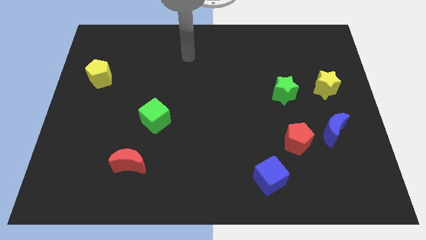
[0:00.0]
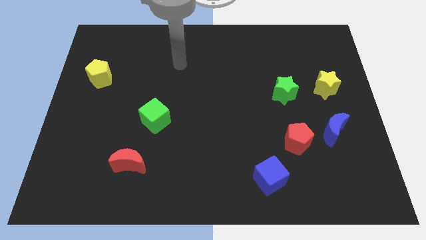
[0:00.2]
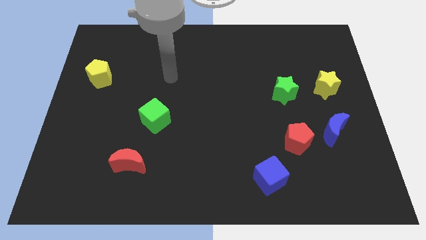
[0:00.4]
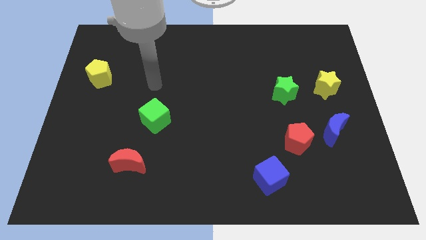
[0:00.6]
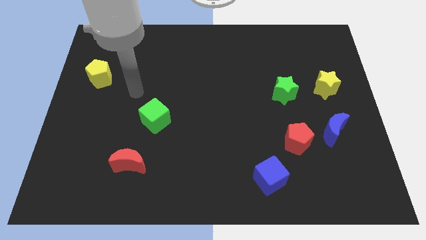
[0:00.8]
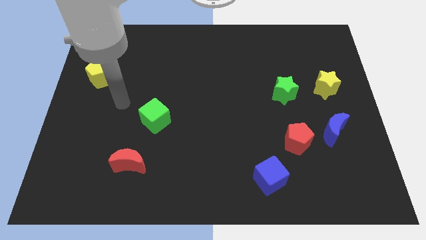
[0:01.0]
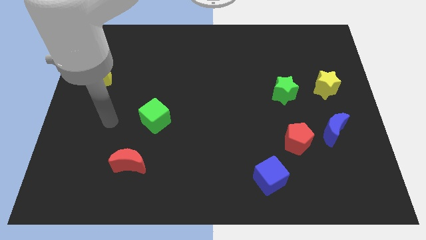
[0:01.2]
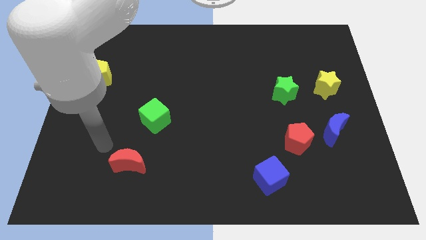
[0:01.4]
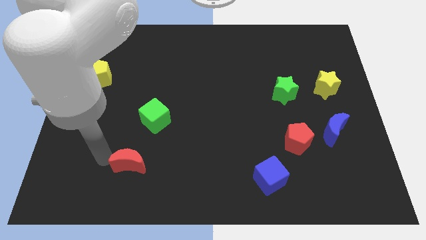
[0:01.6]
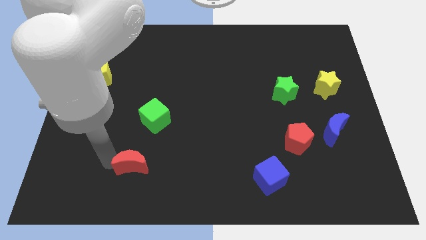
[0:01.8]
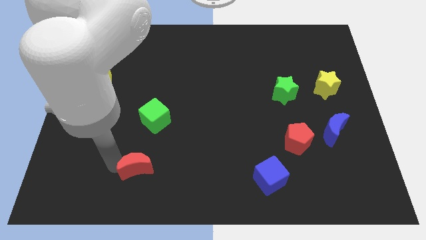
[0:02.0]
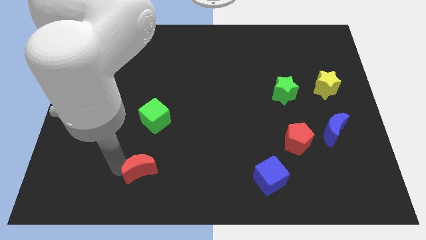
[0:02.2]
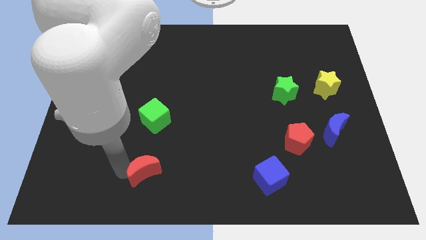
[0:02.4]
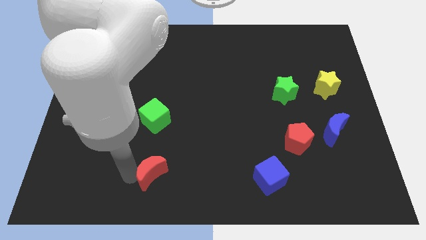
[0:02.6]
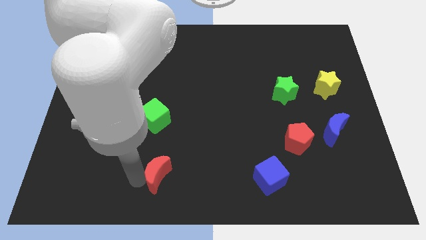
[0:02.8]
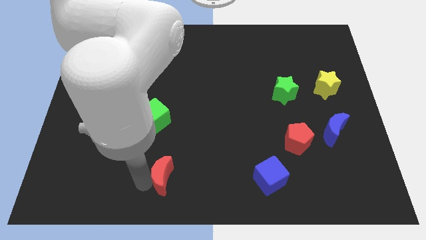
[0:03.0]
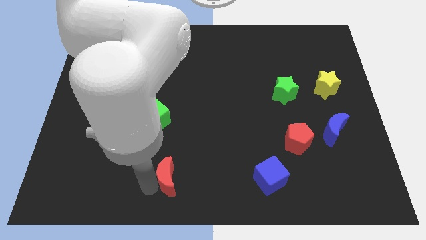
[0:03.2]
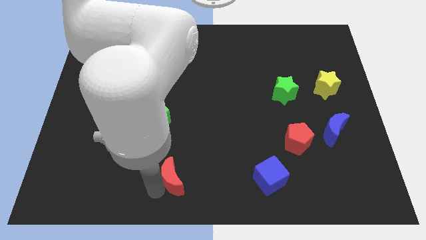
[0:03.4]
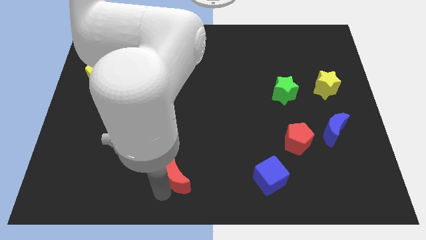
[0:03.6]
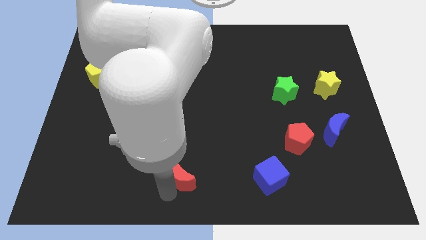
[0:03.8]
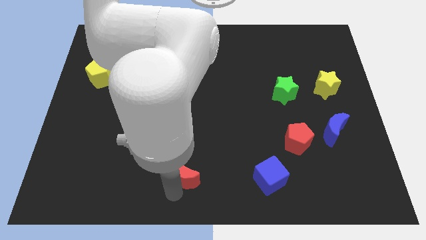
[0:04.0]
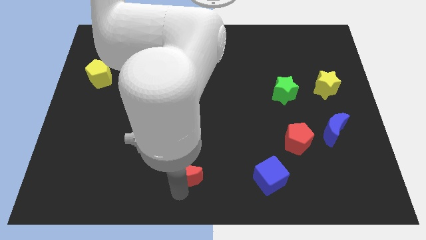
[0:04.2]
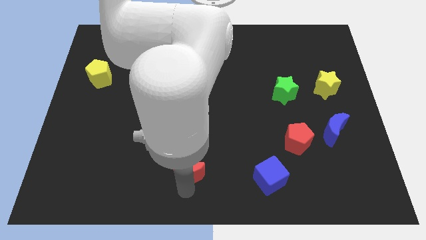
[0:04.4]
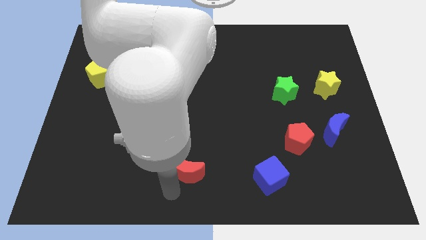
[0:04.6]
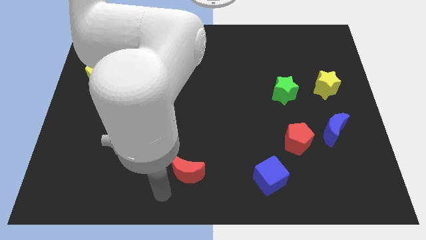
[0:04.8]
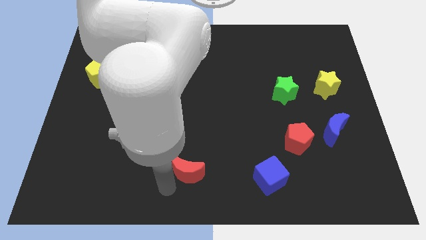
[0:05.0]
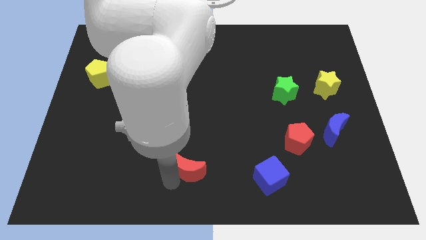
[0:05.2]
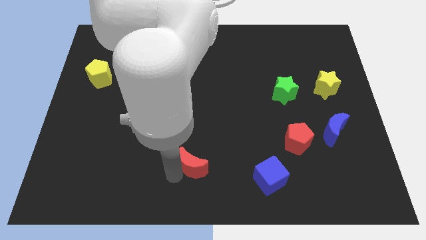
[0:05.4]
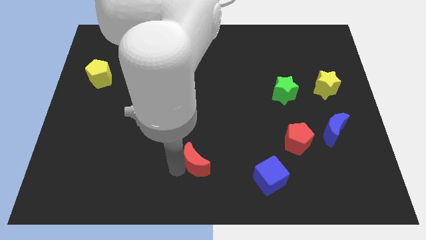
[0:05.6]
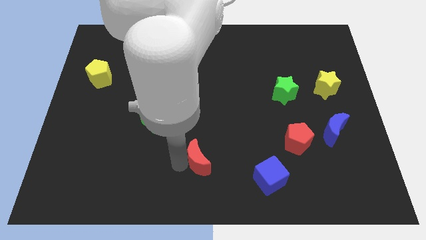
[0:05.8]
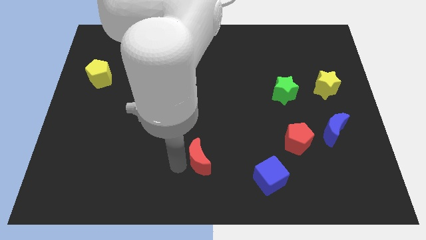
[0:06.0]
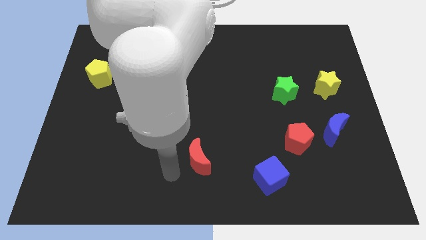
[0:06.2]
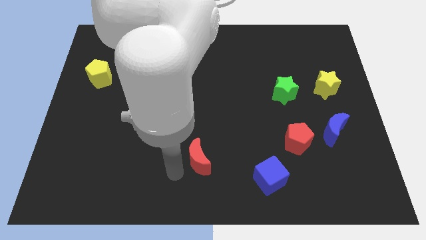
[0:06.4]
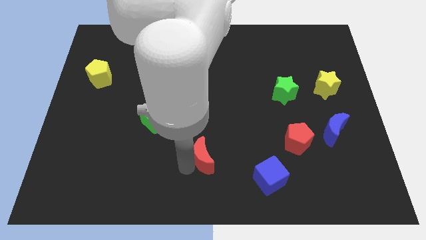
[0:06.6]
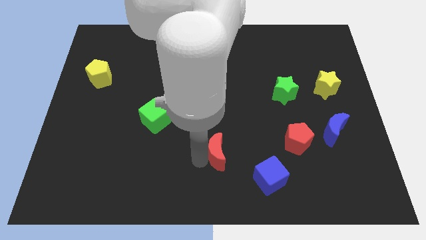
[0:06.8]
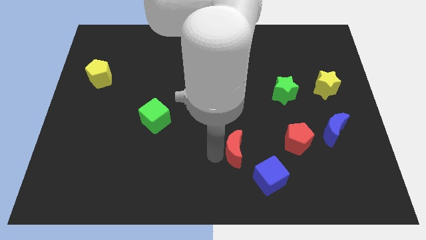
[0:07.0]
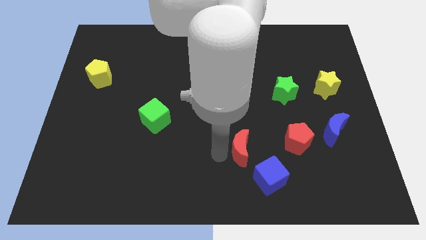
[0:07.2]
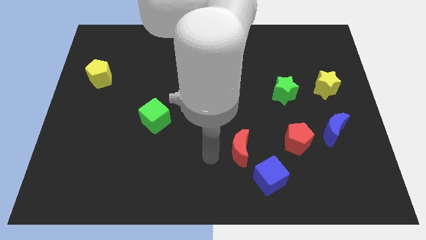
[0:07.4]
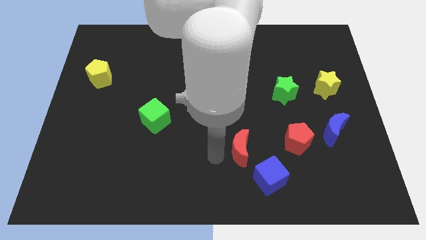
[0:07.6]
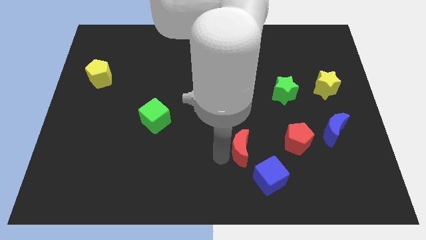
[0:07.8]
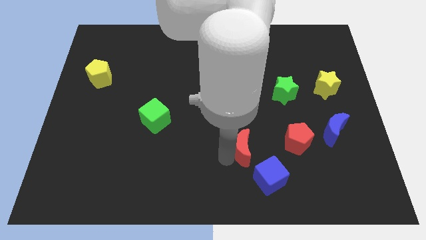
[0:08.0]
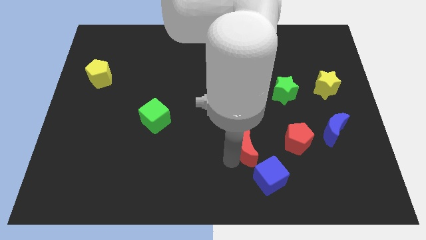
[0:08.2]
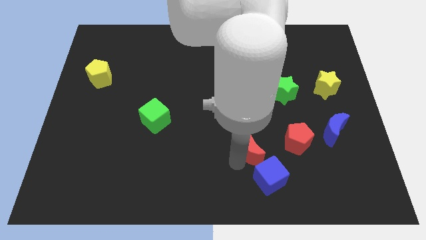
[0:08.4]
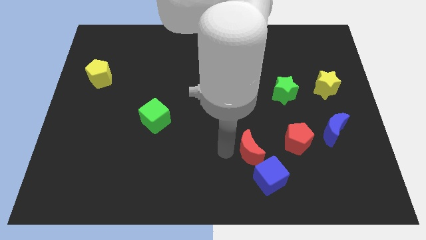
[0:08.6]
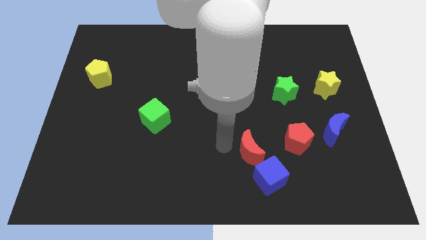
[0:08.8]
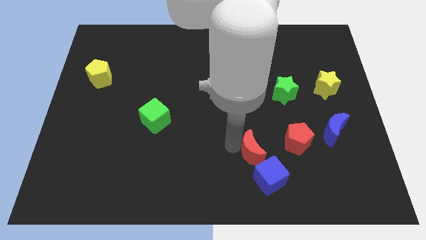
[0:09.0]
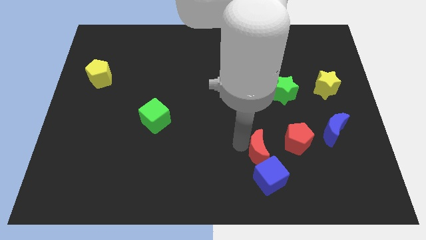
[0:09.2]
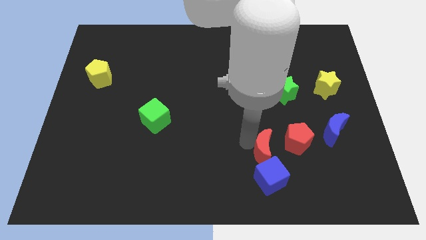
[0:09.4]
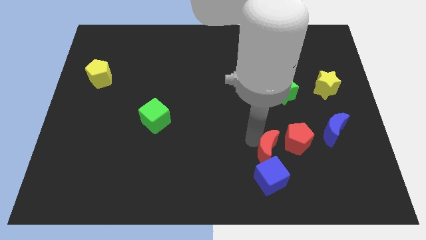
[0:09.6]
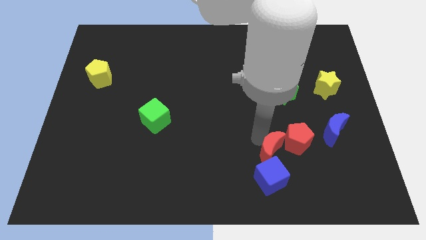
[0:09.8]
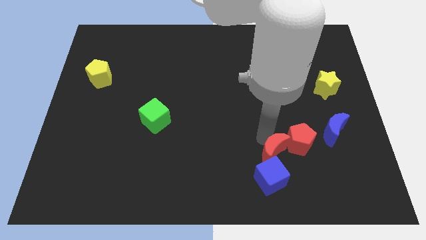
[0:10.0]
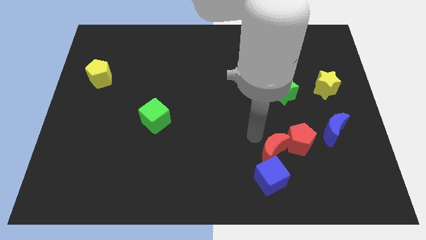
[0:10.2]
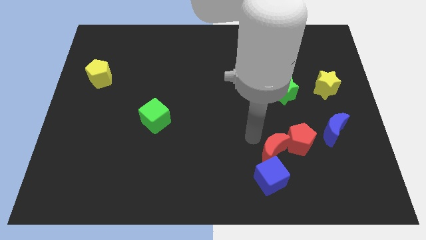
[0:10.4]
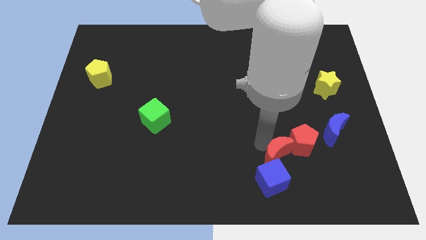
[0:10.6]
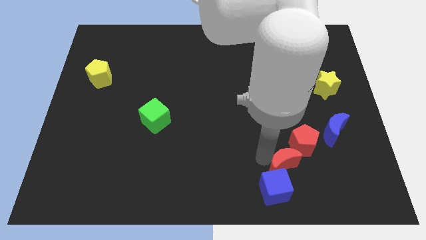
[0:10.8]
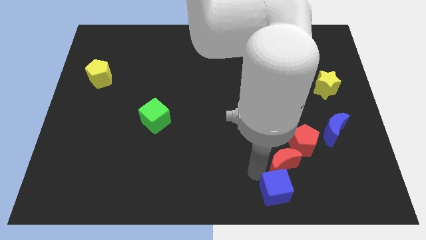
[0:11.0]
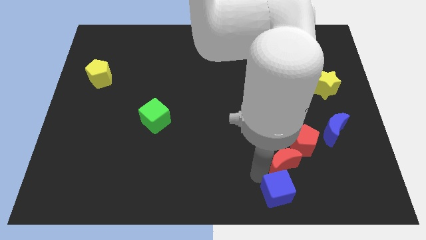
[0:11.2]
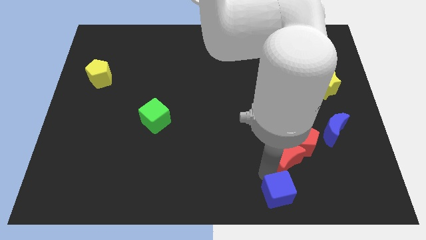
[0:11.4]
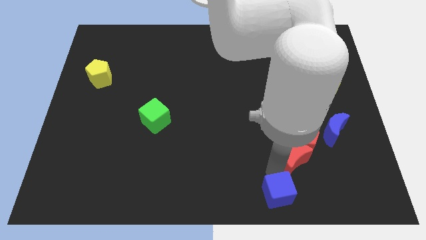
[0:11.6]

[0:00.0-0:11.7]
push the red moon diagonally down and to the left of the blue moon

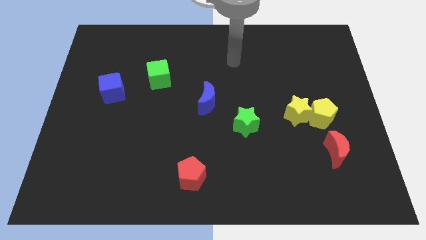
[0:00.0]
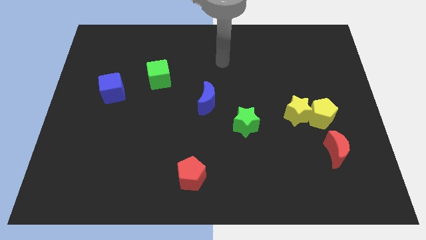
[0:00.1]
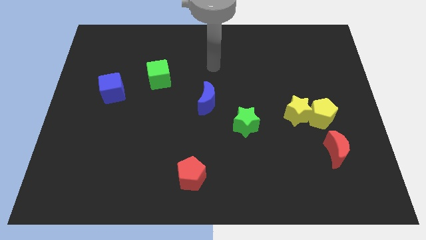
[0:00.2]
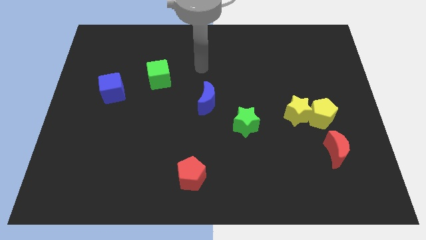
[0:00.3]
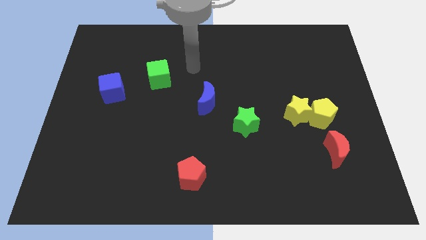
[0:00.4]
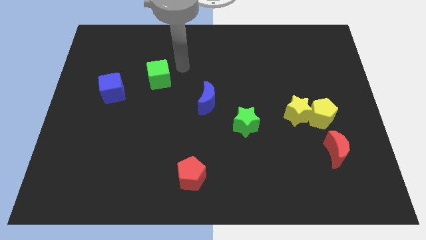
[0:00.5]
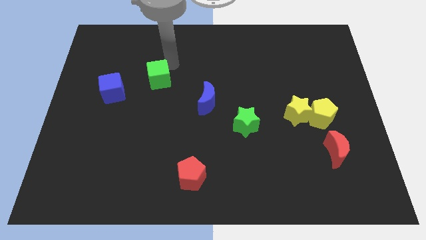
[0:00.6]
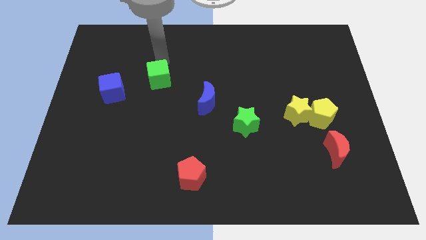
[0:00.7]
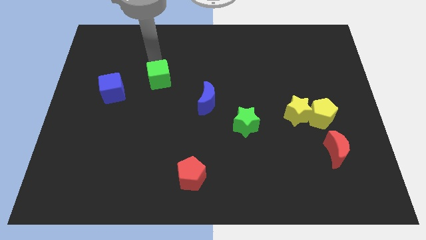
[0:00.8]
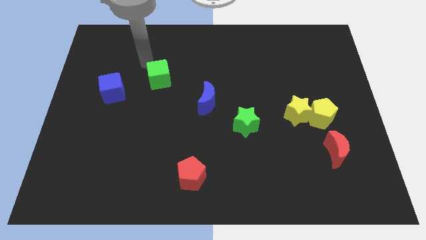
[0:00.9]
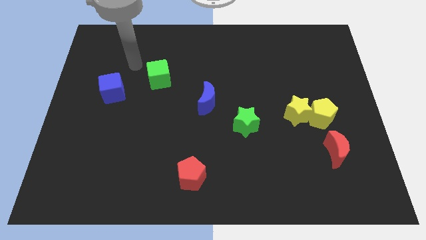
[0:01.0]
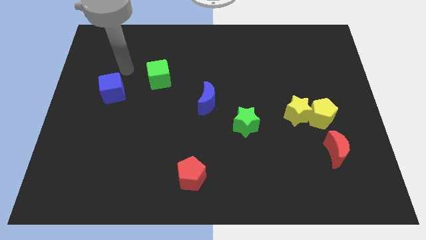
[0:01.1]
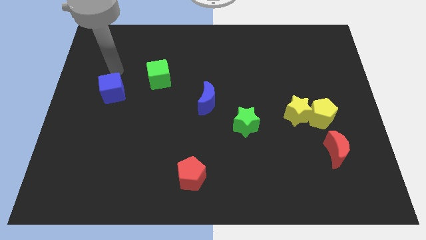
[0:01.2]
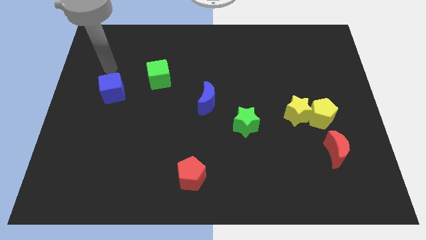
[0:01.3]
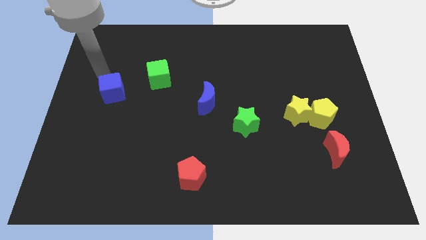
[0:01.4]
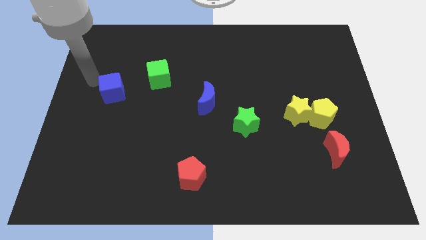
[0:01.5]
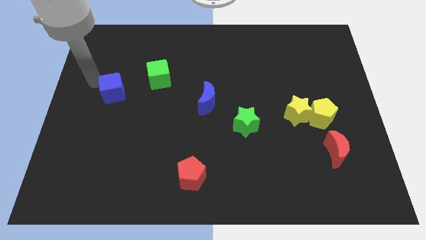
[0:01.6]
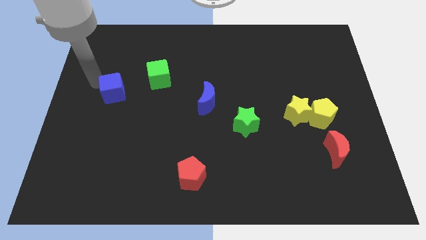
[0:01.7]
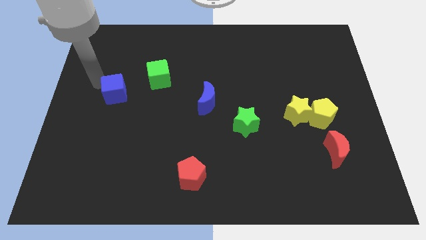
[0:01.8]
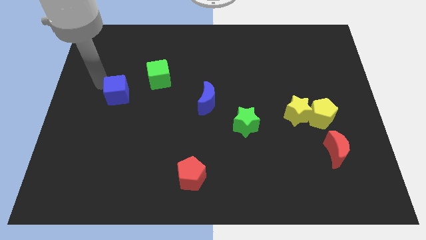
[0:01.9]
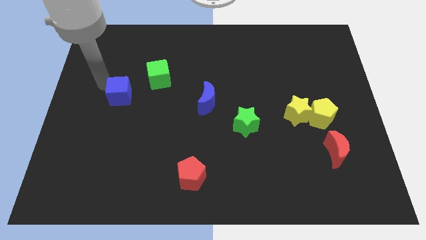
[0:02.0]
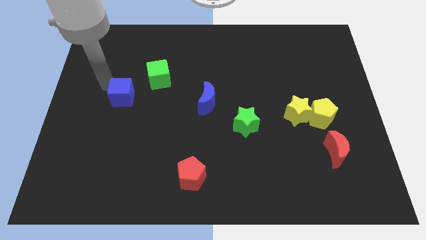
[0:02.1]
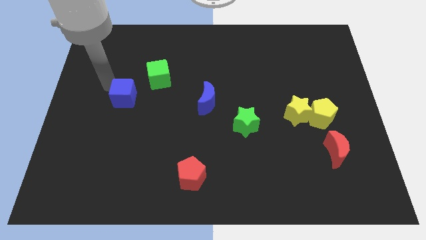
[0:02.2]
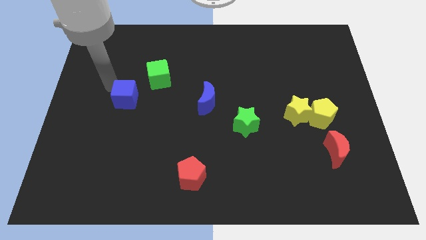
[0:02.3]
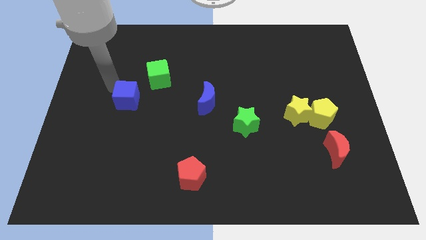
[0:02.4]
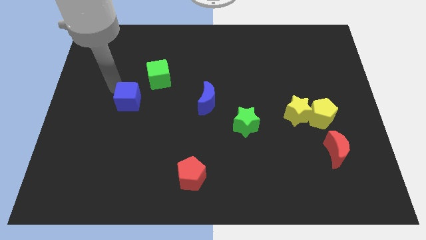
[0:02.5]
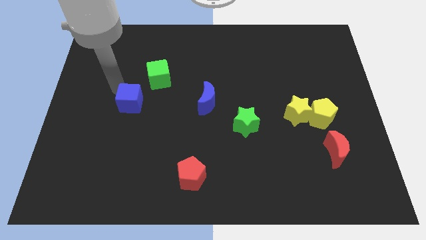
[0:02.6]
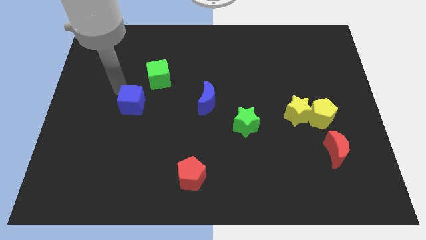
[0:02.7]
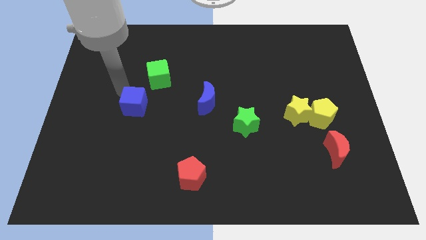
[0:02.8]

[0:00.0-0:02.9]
move the blue cube to the bottom side of the green cube
